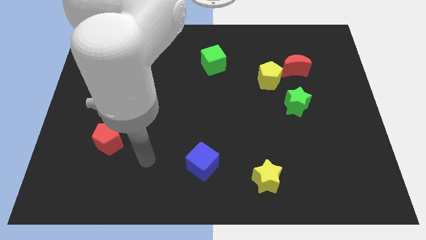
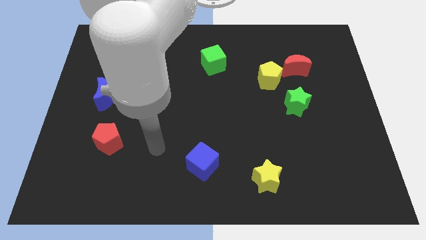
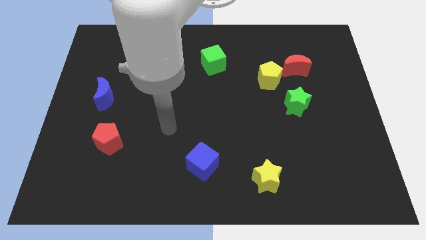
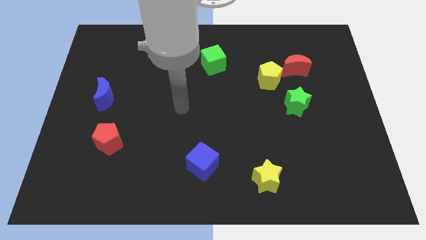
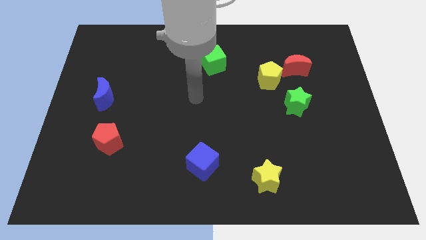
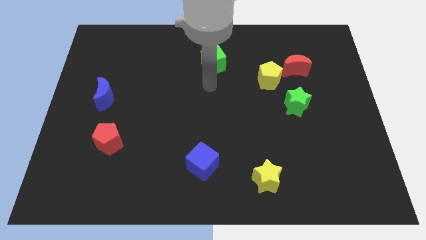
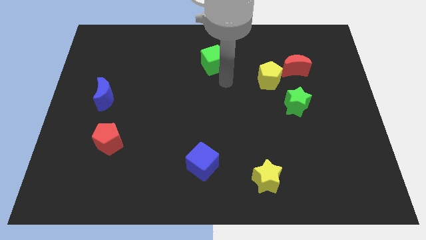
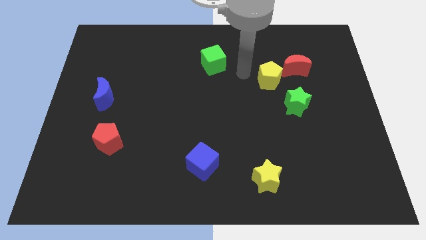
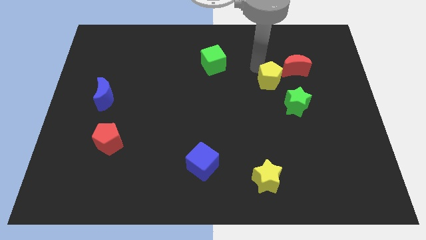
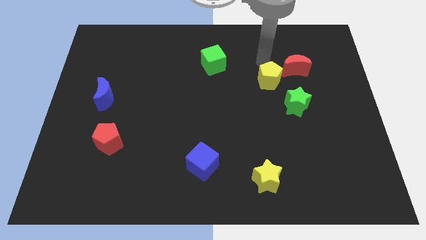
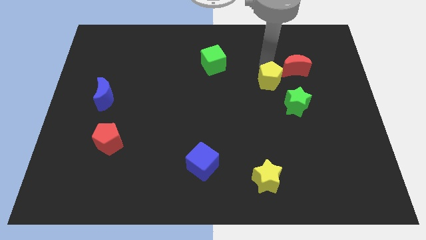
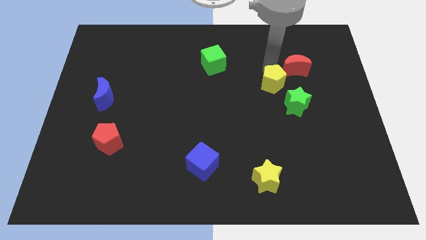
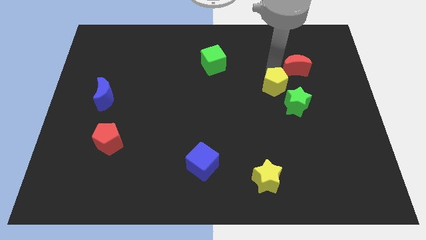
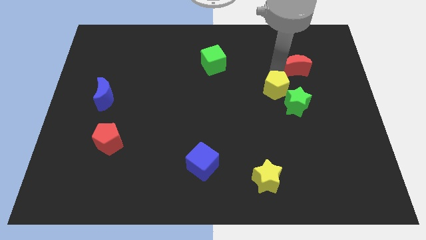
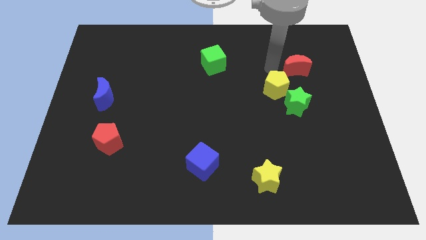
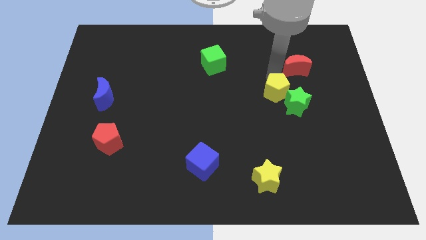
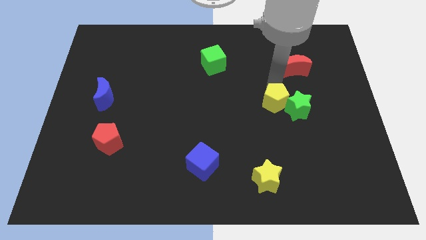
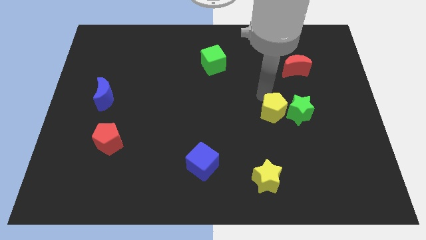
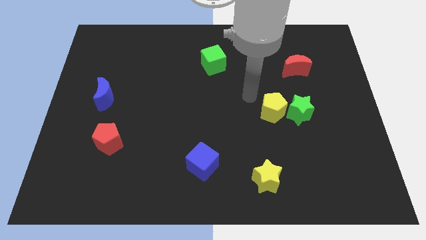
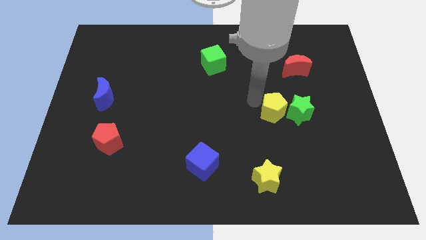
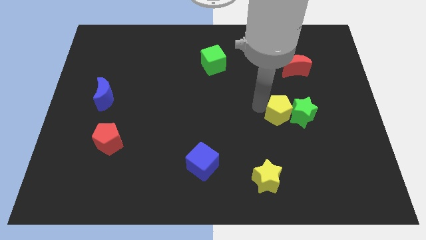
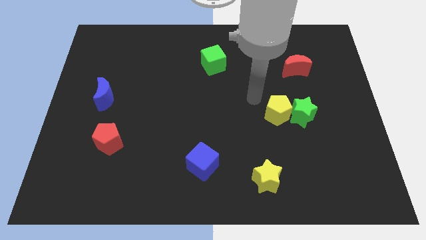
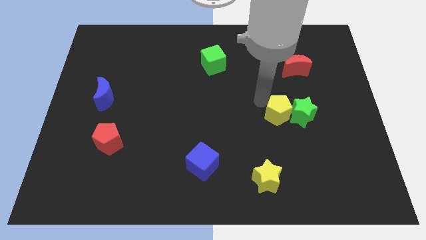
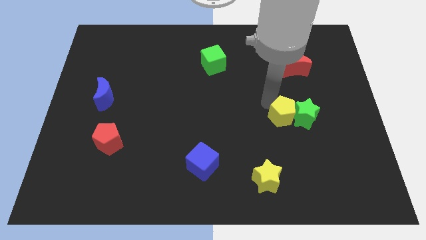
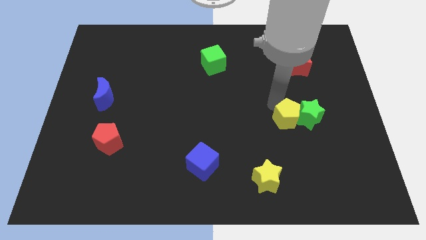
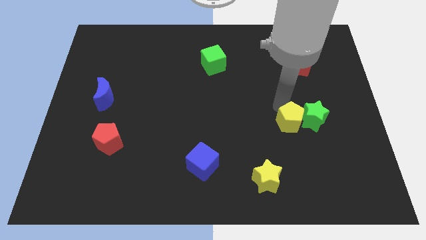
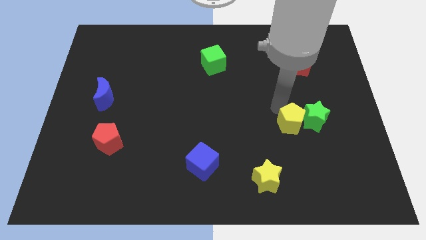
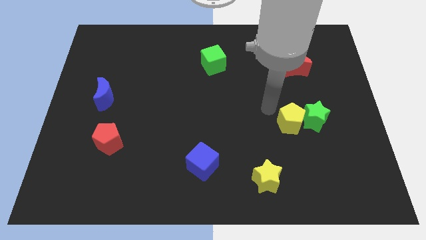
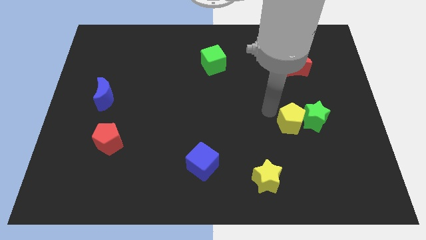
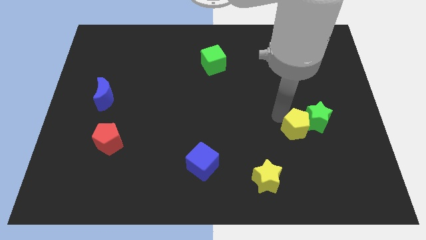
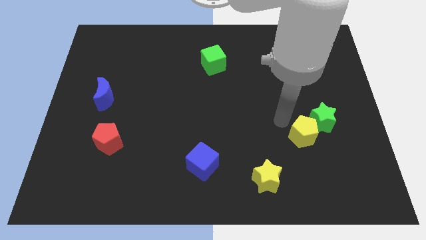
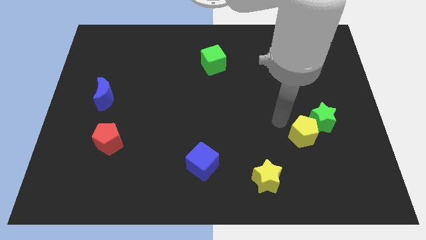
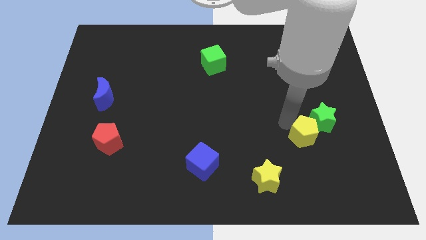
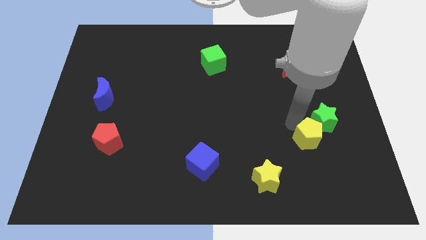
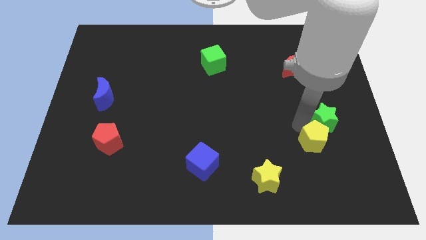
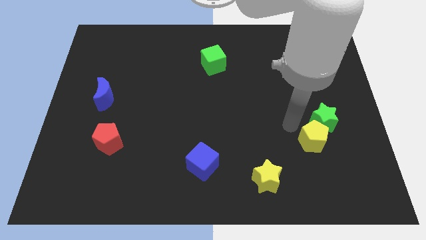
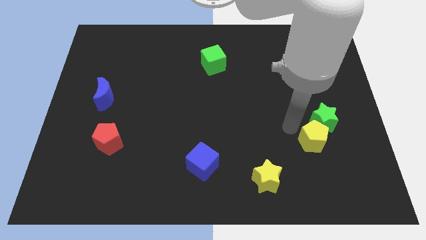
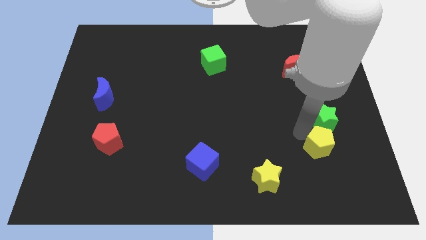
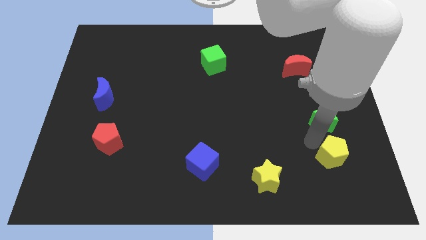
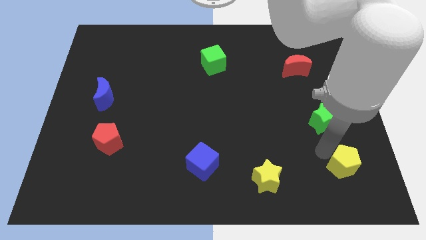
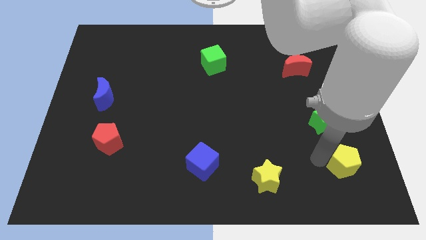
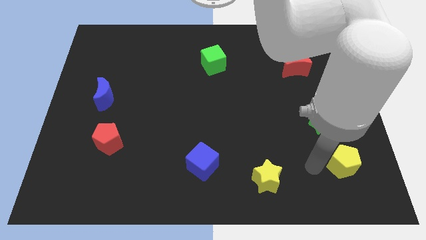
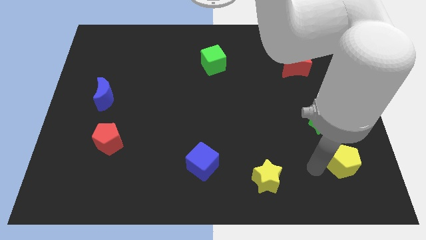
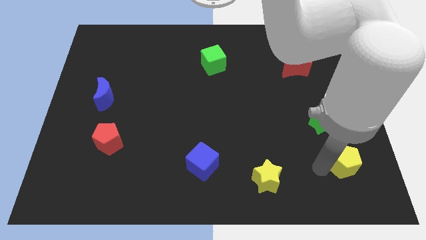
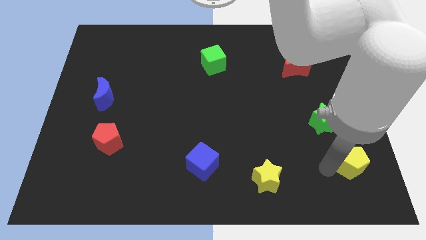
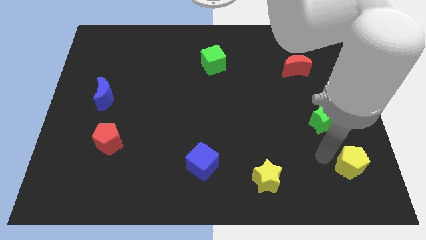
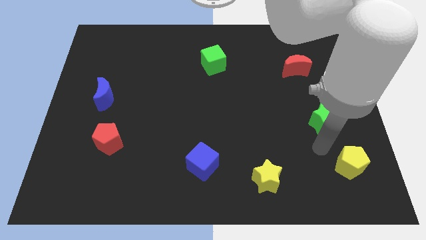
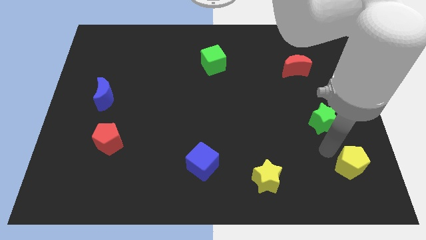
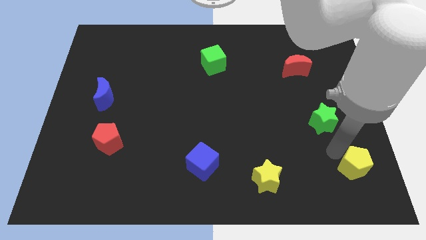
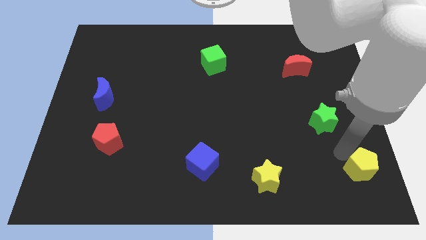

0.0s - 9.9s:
move the yellow pentagon to the bottom right

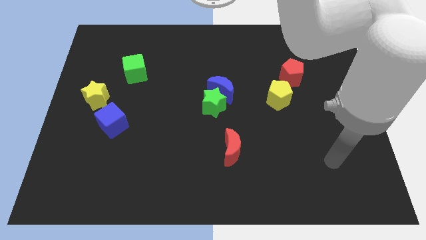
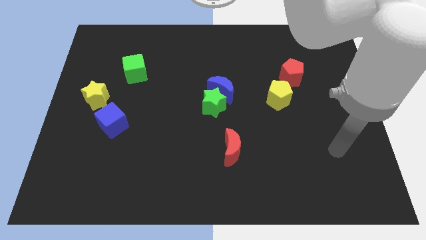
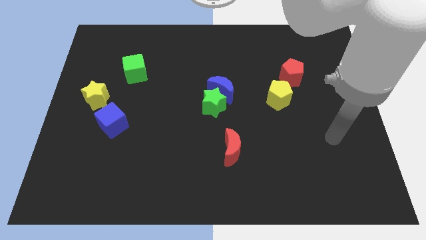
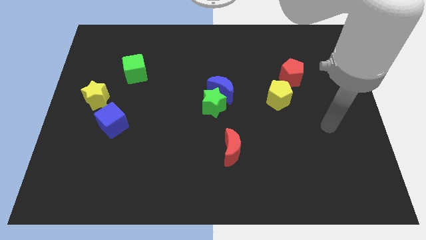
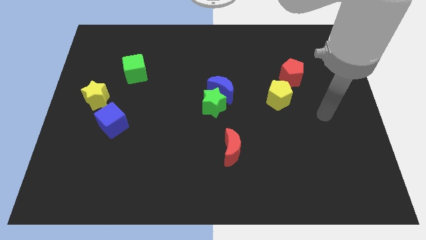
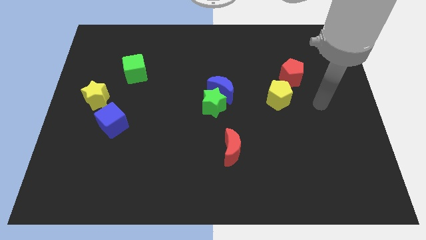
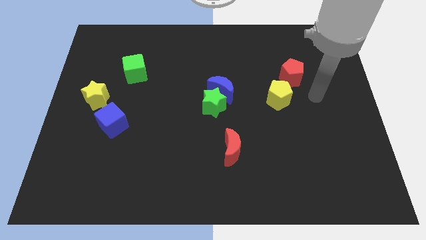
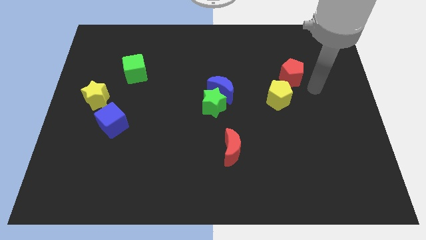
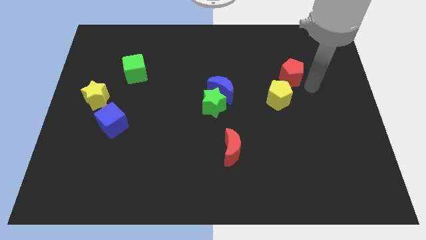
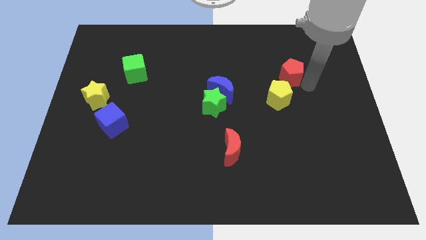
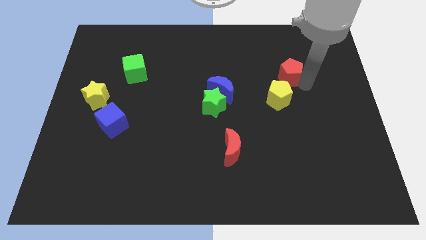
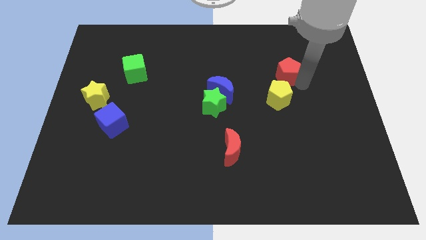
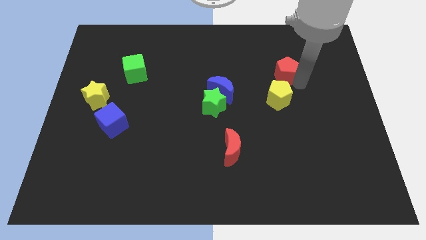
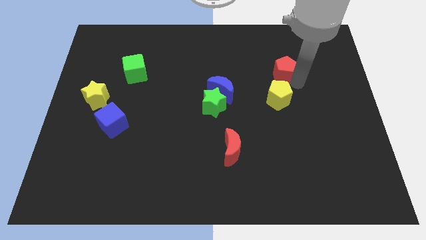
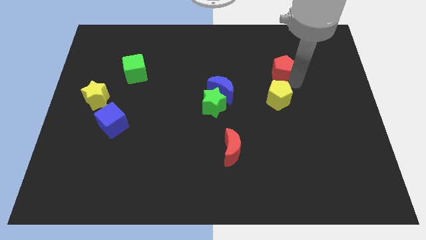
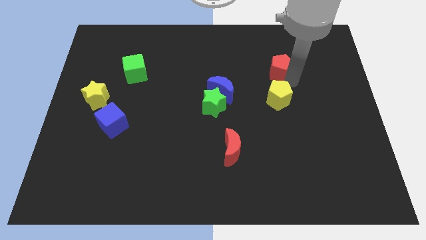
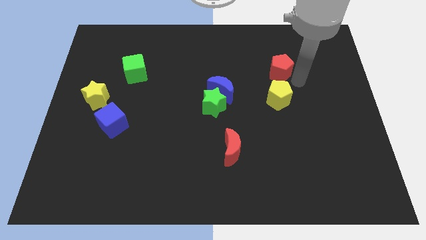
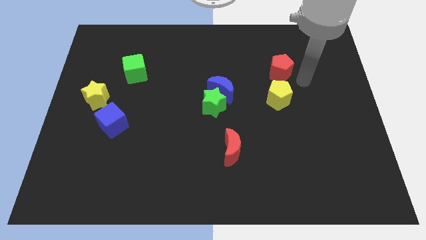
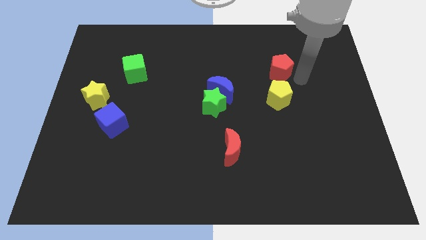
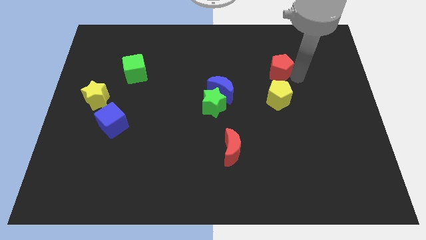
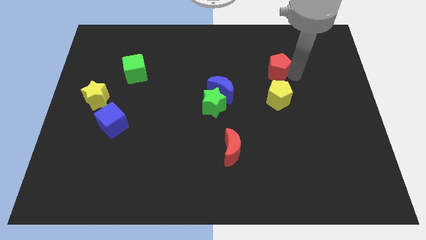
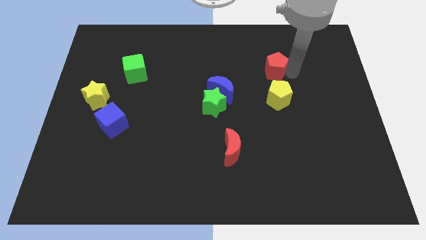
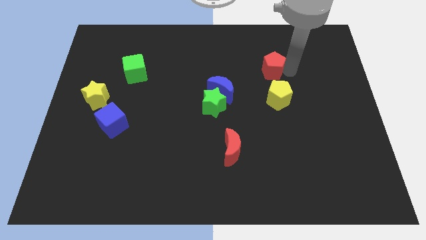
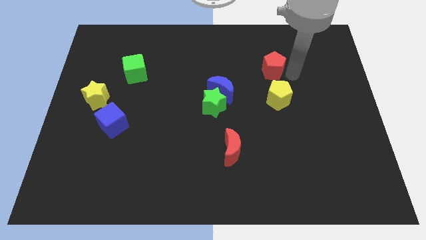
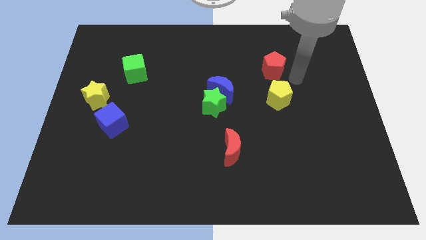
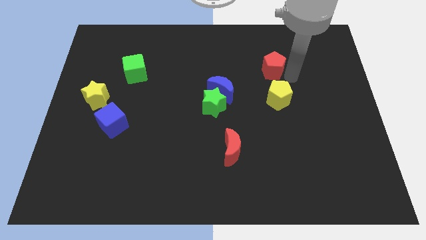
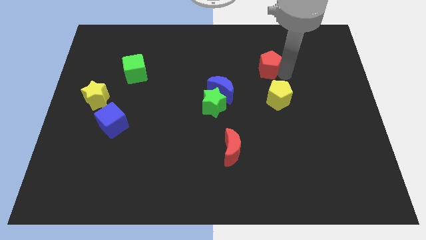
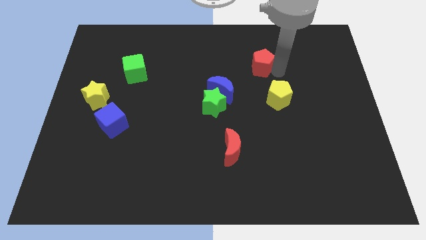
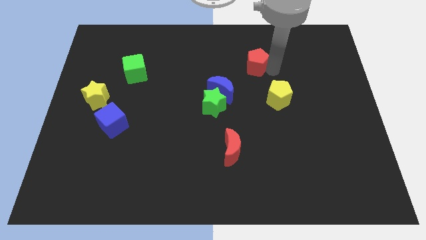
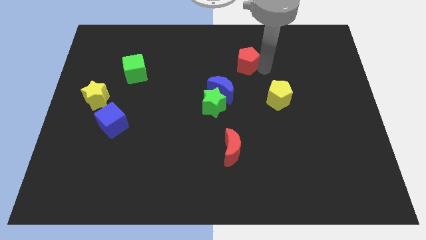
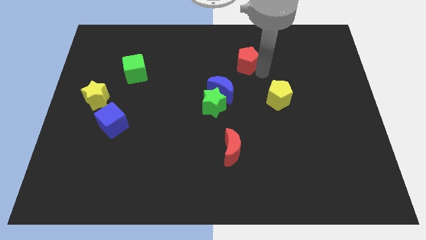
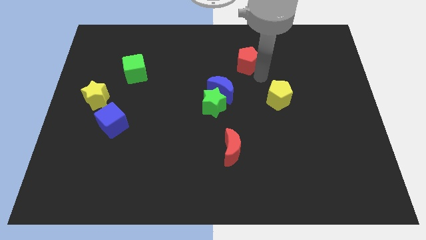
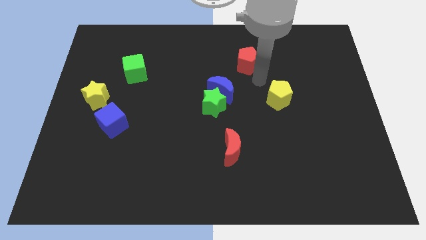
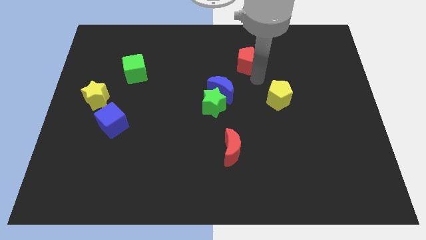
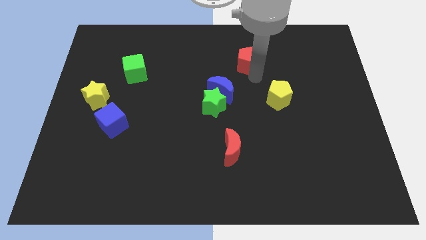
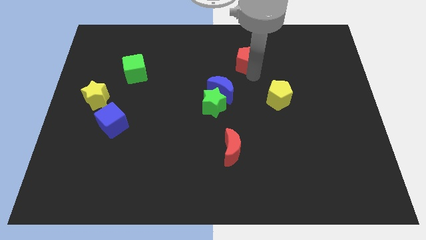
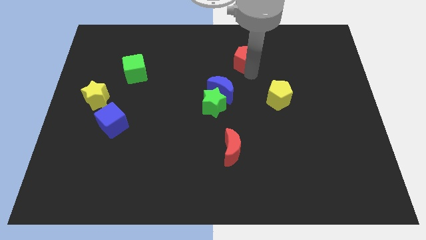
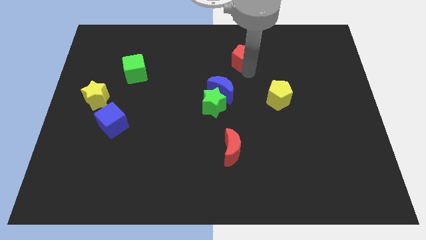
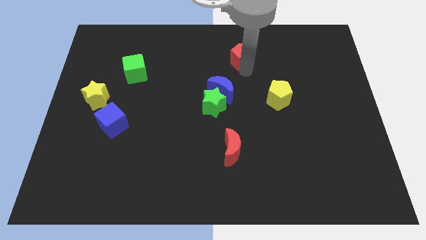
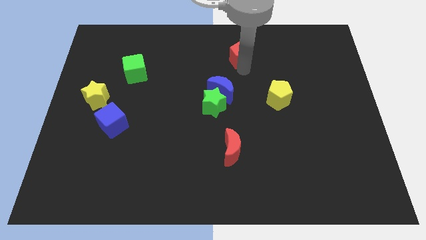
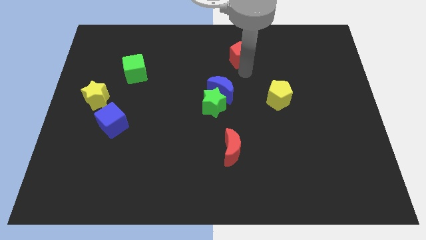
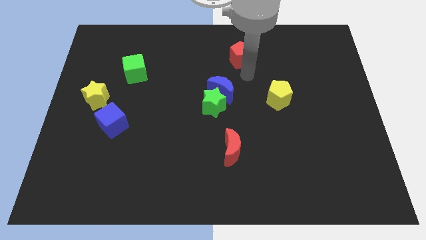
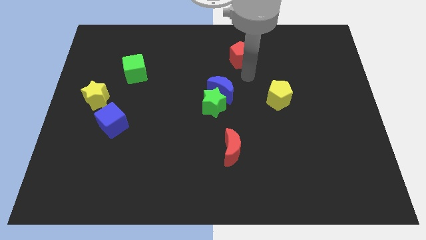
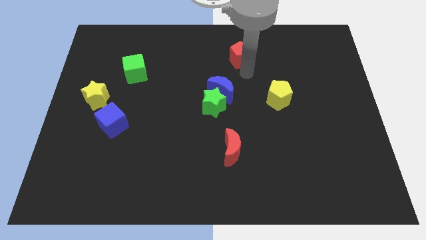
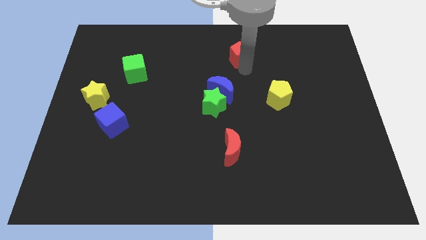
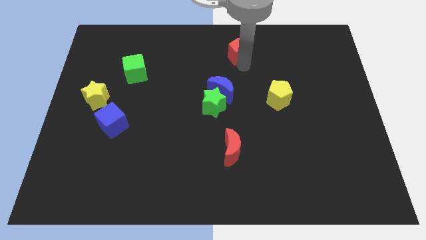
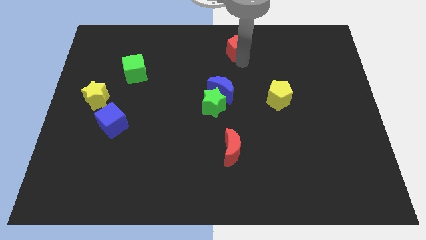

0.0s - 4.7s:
push the red pentagon to the top
